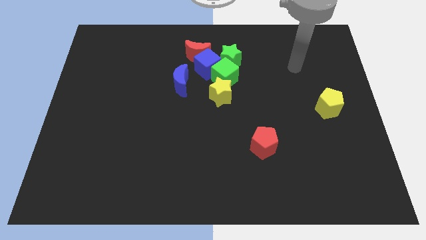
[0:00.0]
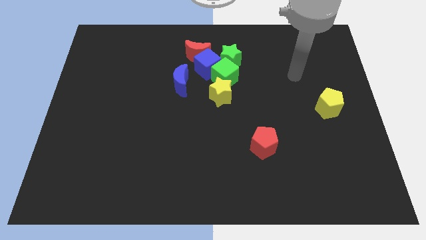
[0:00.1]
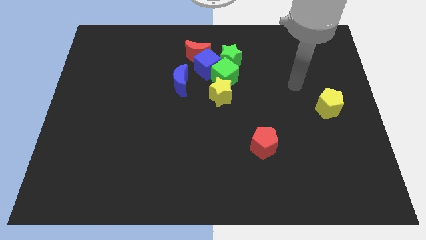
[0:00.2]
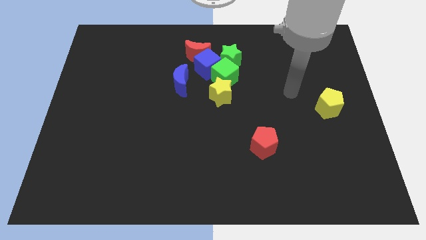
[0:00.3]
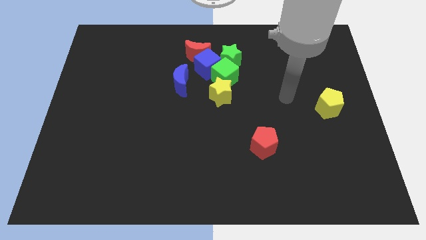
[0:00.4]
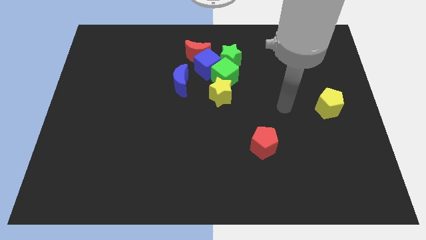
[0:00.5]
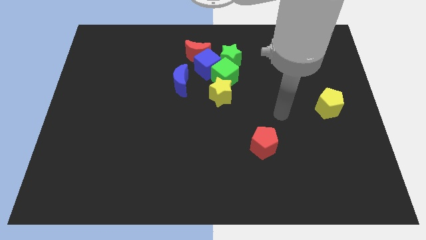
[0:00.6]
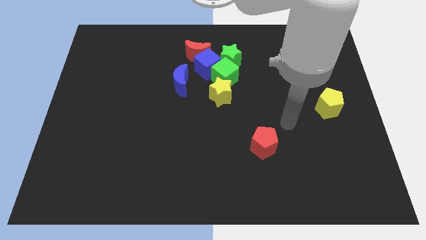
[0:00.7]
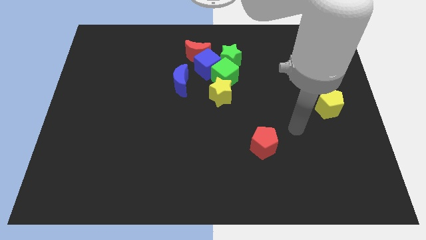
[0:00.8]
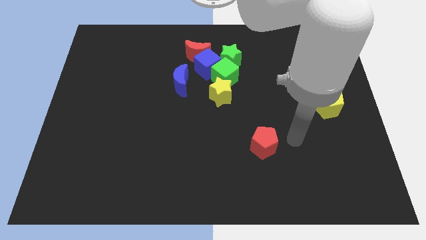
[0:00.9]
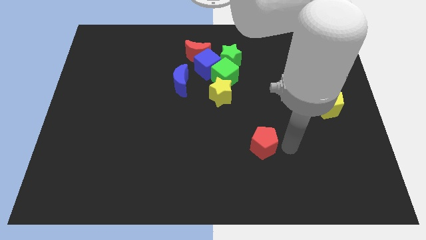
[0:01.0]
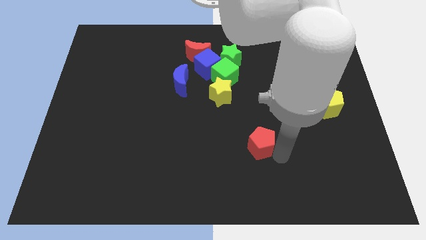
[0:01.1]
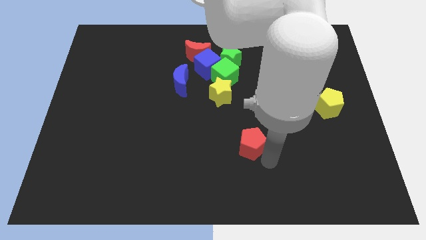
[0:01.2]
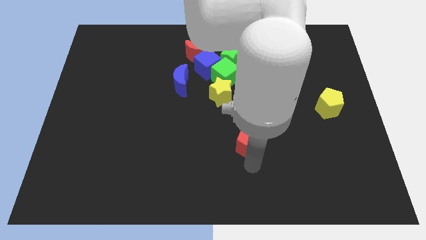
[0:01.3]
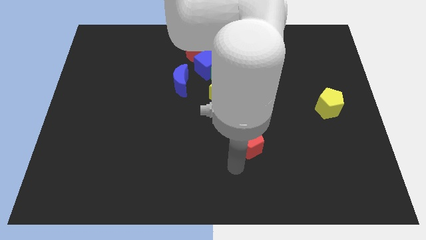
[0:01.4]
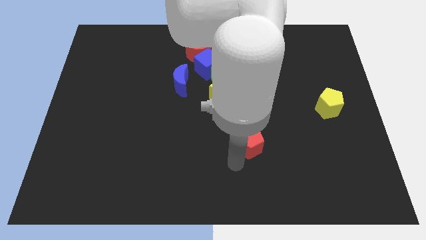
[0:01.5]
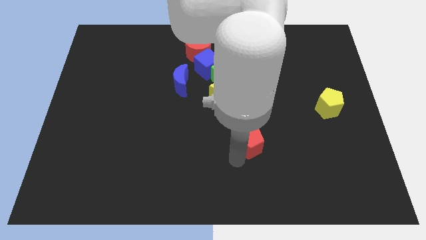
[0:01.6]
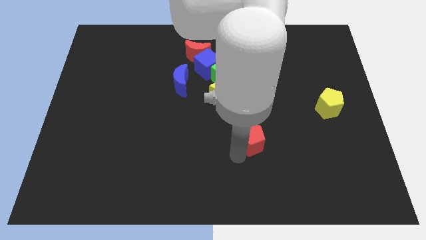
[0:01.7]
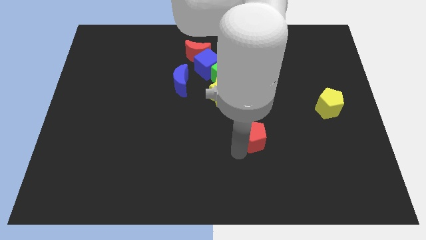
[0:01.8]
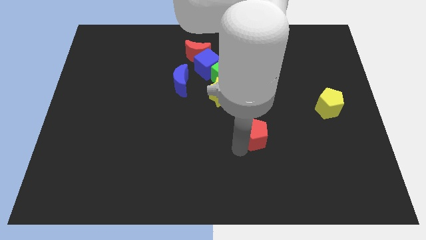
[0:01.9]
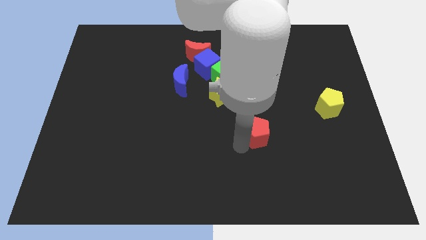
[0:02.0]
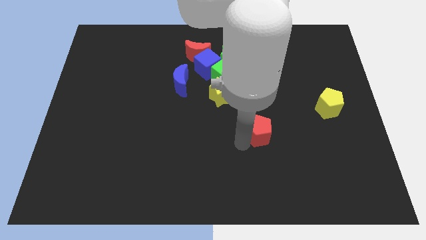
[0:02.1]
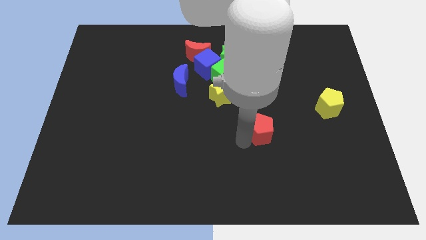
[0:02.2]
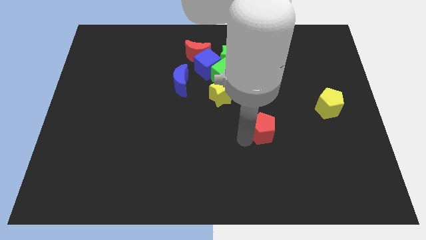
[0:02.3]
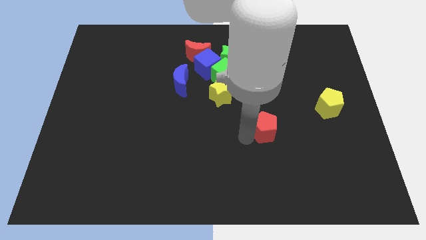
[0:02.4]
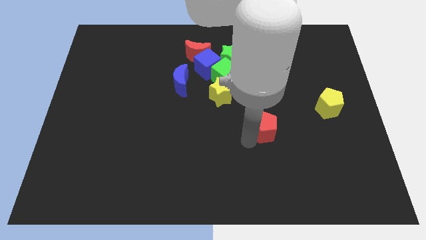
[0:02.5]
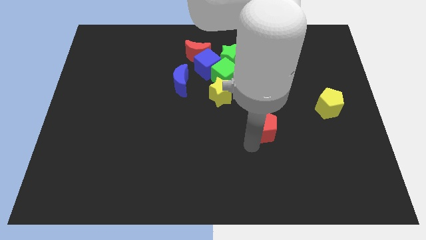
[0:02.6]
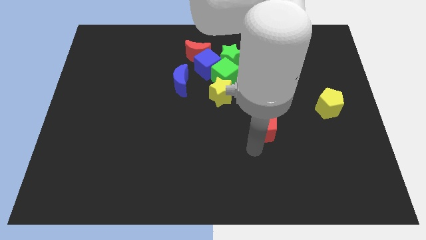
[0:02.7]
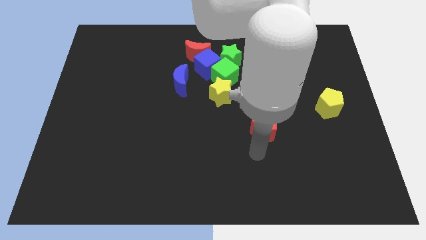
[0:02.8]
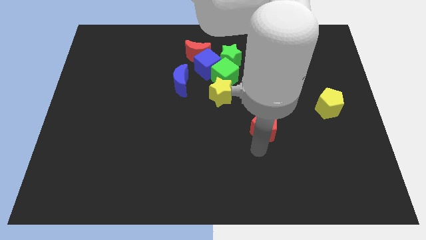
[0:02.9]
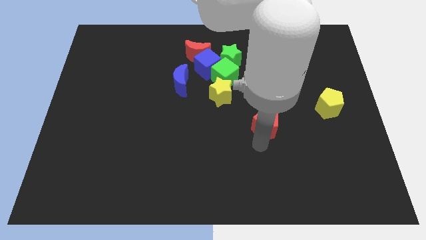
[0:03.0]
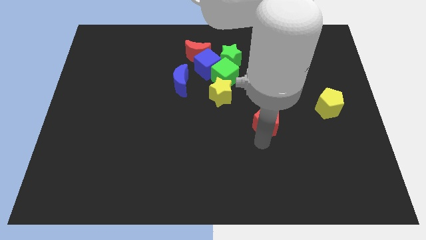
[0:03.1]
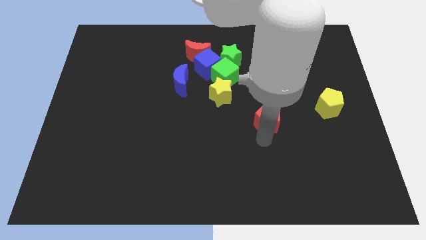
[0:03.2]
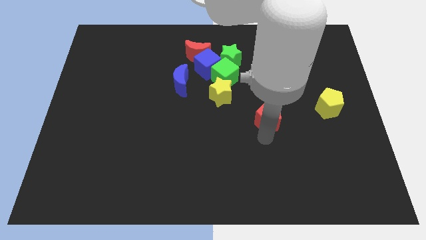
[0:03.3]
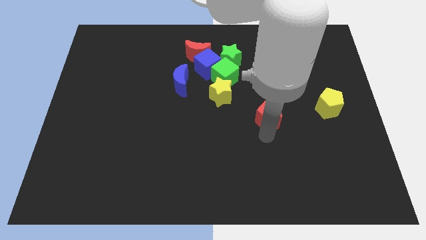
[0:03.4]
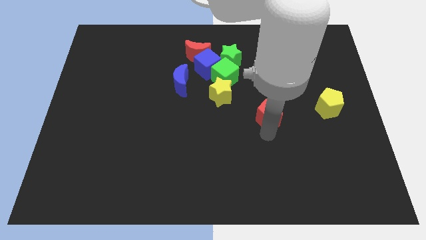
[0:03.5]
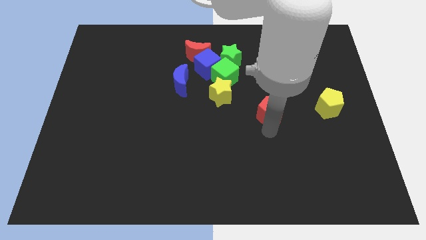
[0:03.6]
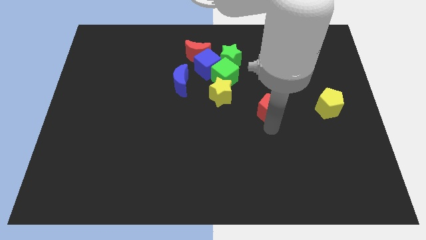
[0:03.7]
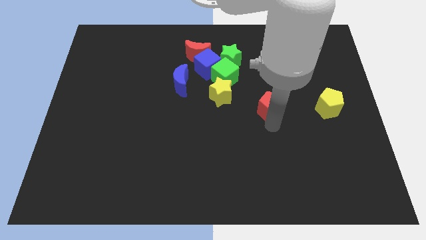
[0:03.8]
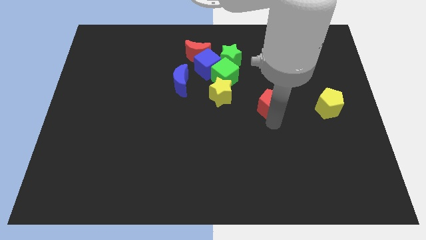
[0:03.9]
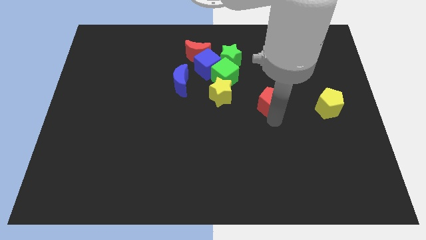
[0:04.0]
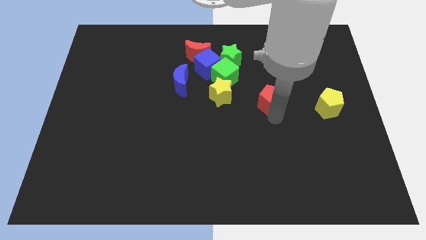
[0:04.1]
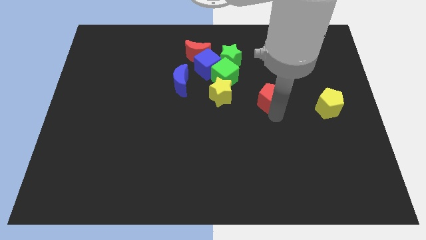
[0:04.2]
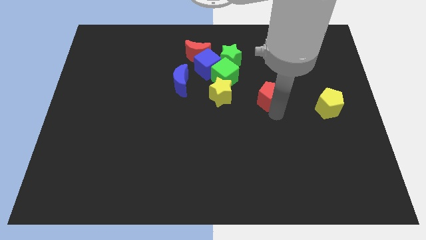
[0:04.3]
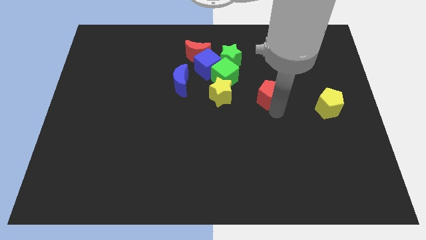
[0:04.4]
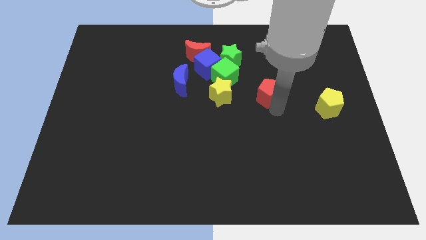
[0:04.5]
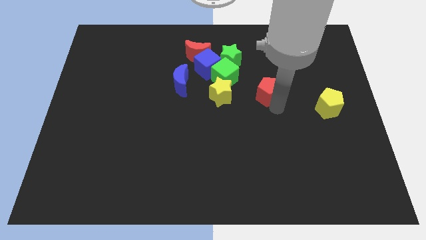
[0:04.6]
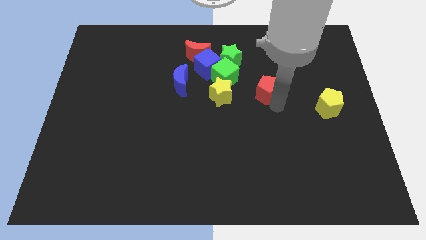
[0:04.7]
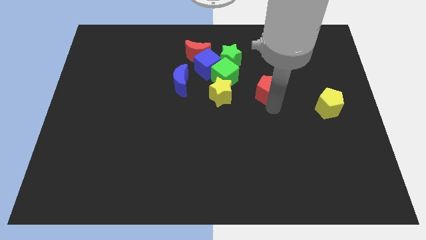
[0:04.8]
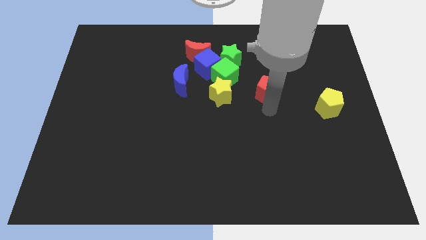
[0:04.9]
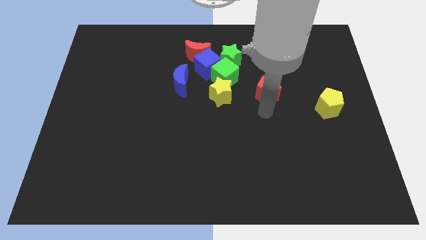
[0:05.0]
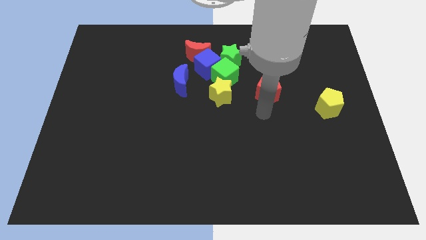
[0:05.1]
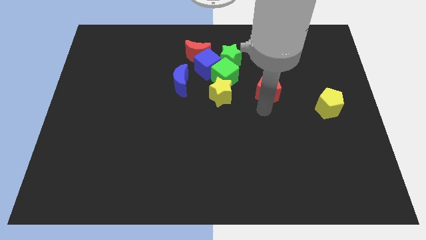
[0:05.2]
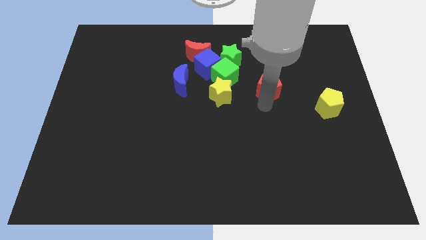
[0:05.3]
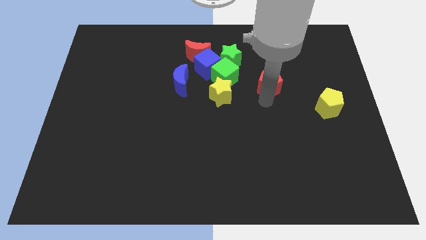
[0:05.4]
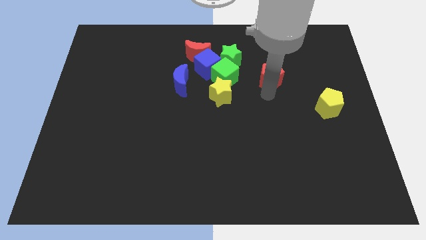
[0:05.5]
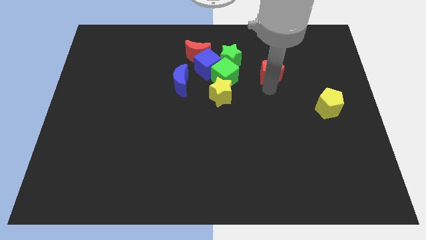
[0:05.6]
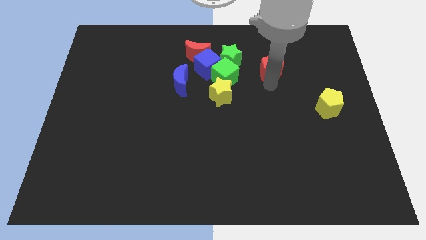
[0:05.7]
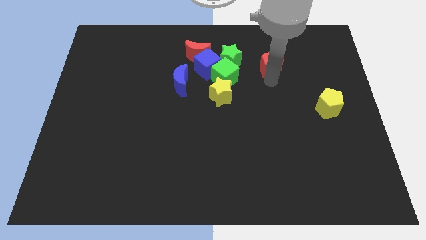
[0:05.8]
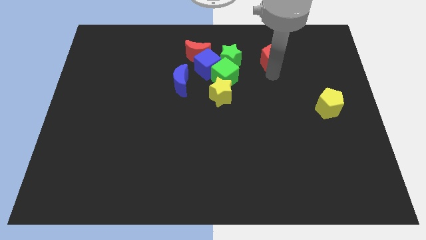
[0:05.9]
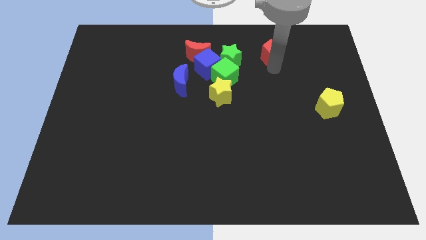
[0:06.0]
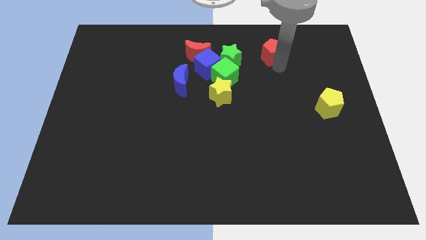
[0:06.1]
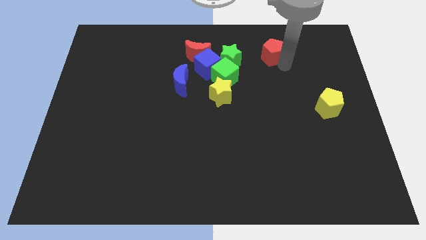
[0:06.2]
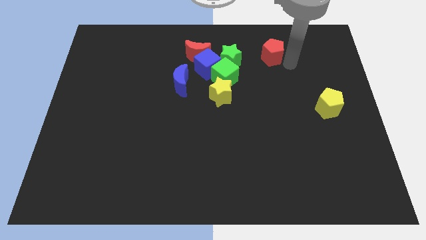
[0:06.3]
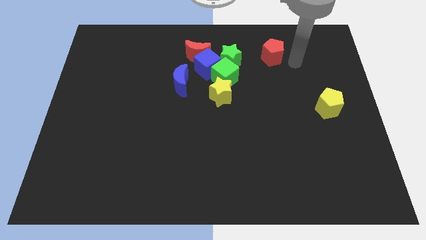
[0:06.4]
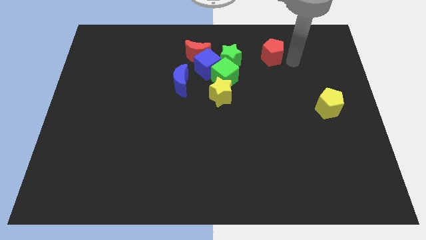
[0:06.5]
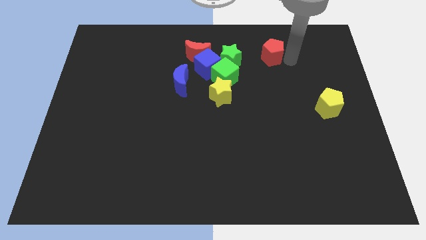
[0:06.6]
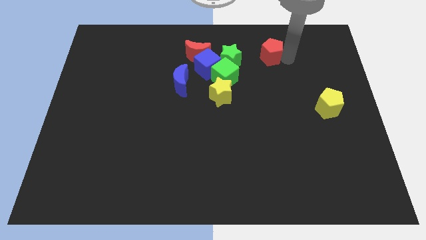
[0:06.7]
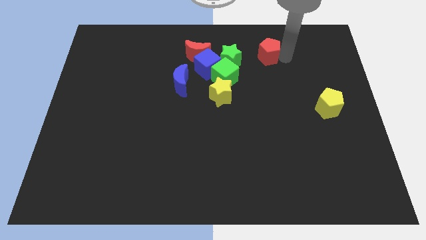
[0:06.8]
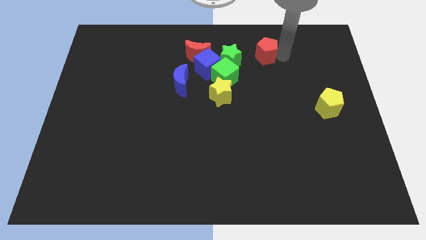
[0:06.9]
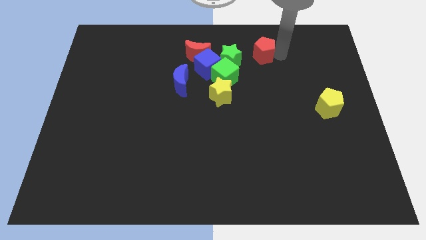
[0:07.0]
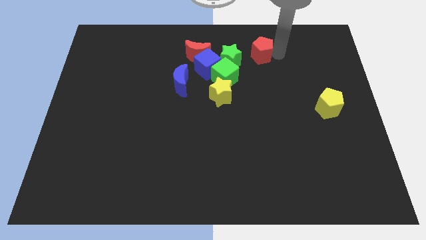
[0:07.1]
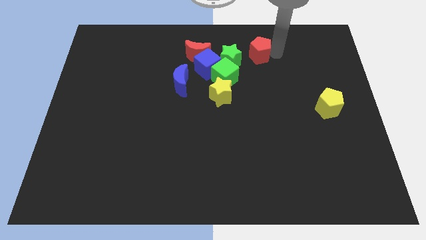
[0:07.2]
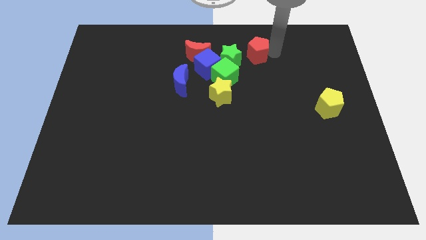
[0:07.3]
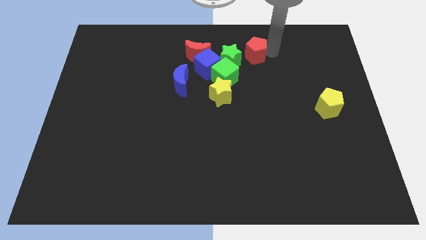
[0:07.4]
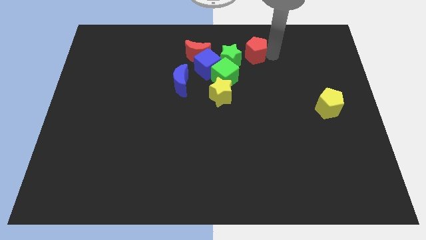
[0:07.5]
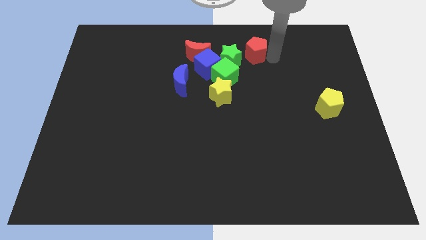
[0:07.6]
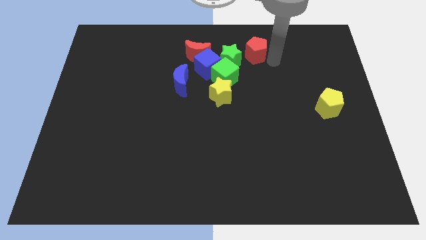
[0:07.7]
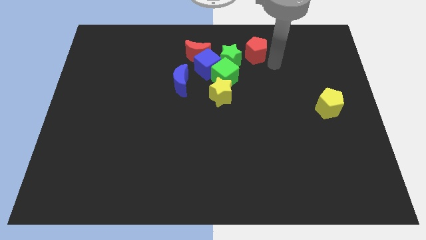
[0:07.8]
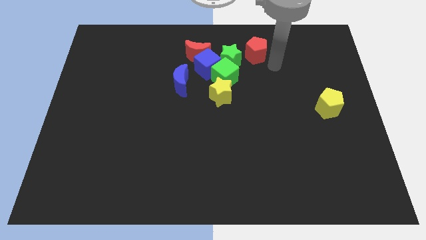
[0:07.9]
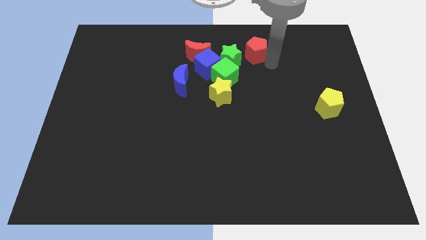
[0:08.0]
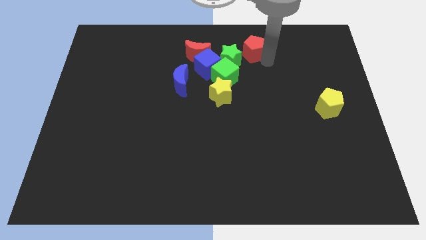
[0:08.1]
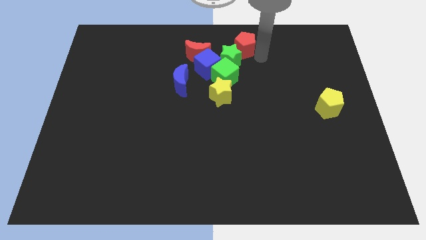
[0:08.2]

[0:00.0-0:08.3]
move the red pentagon to the top side
